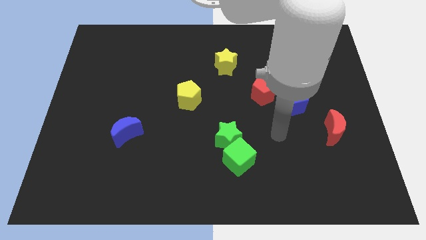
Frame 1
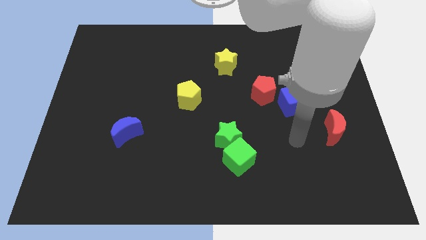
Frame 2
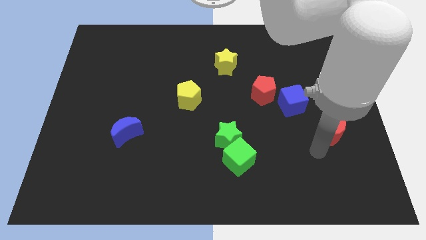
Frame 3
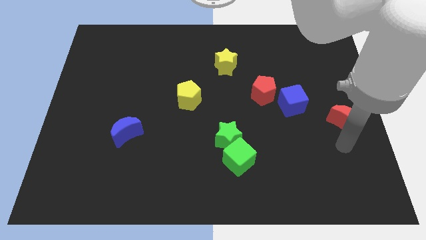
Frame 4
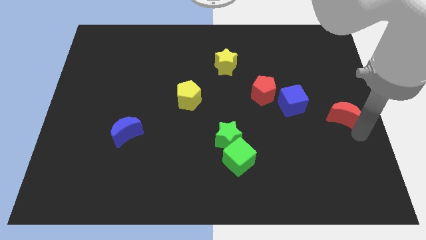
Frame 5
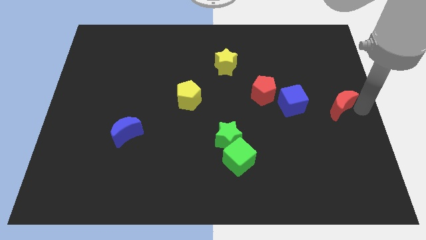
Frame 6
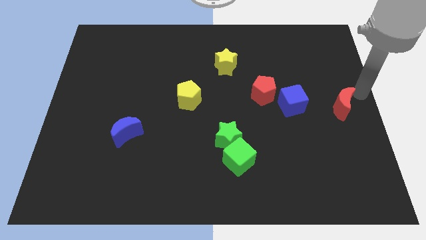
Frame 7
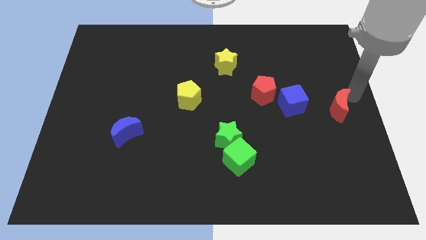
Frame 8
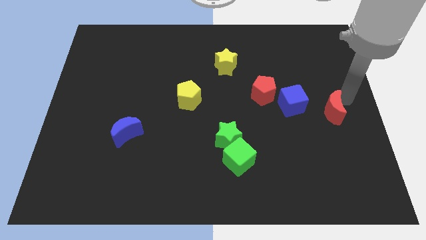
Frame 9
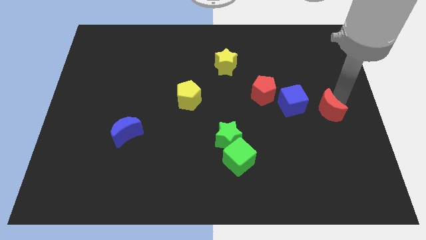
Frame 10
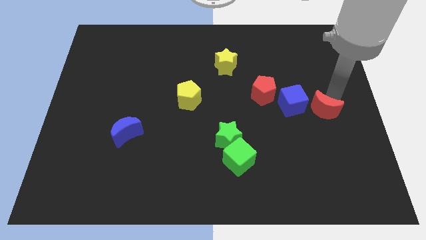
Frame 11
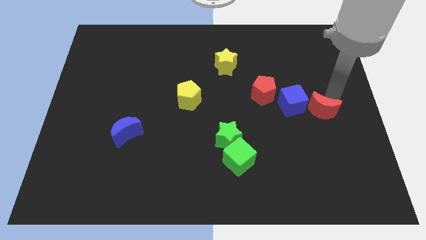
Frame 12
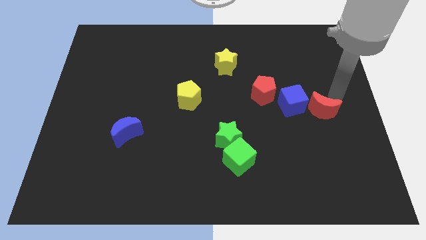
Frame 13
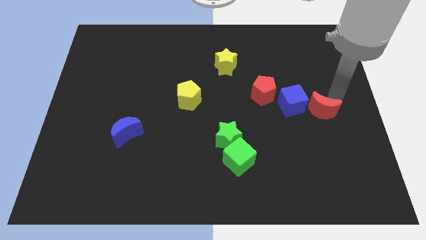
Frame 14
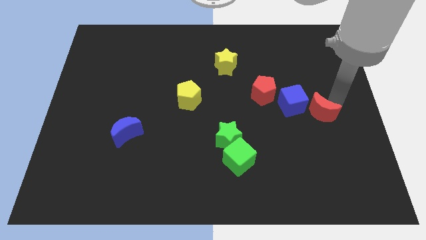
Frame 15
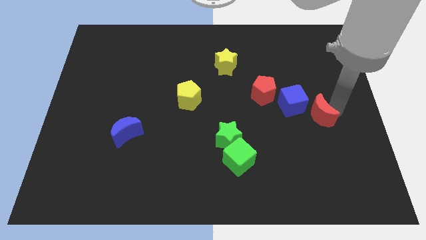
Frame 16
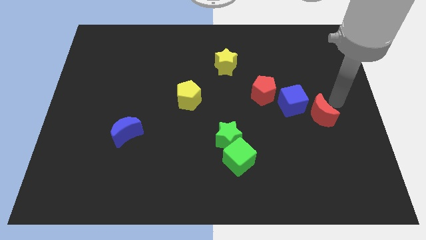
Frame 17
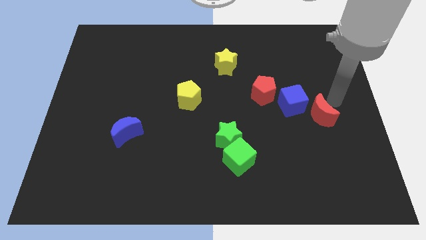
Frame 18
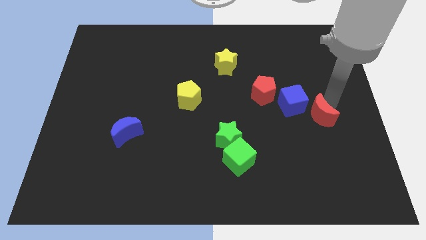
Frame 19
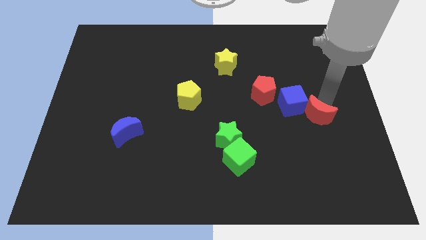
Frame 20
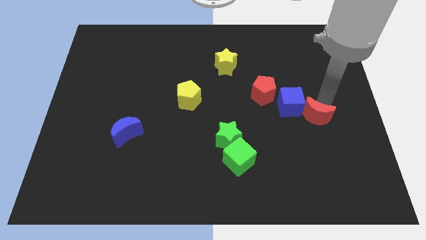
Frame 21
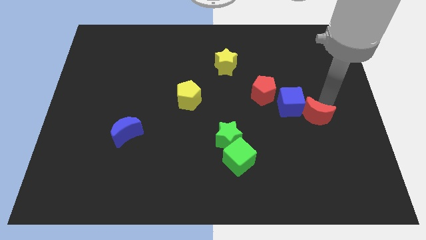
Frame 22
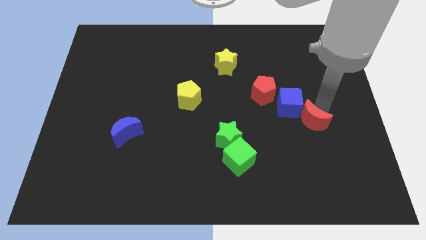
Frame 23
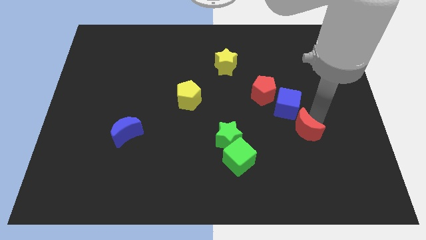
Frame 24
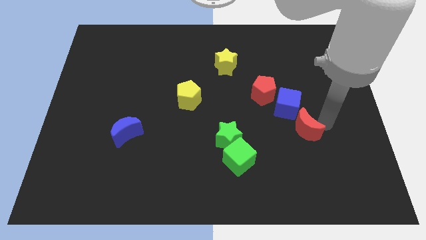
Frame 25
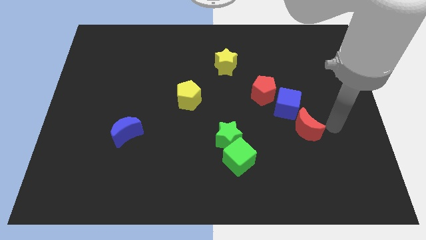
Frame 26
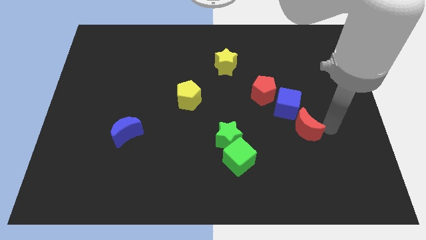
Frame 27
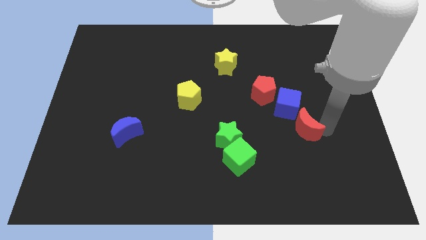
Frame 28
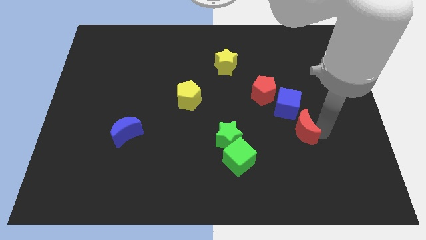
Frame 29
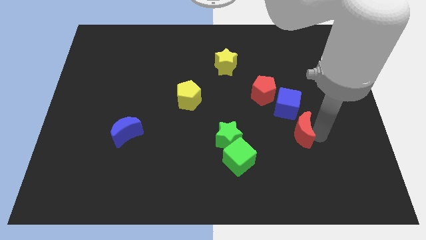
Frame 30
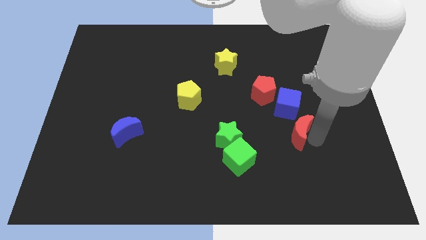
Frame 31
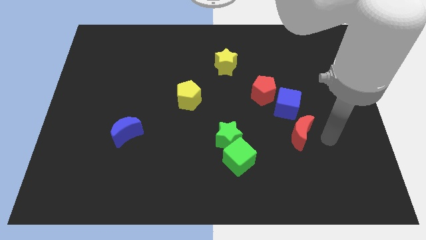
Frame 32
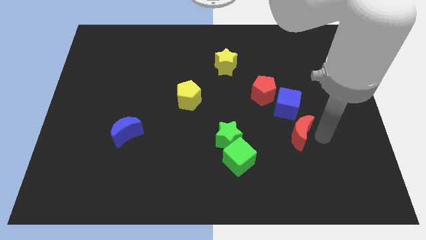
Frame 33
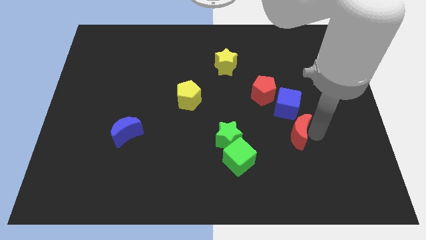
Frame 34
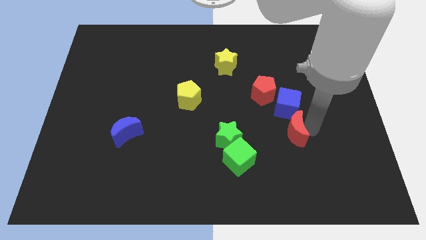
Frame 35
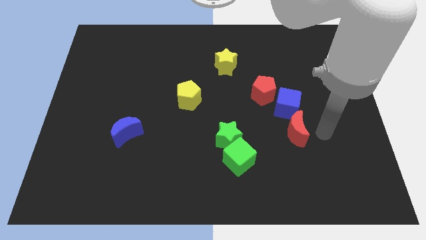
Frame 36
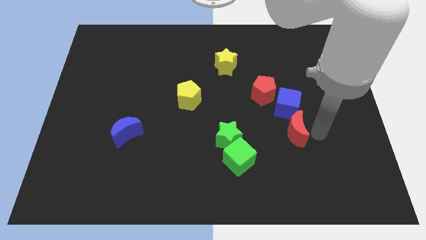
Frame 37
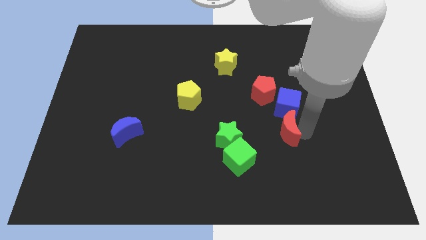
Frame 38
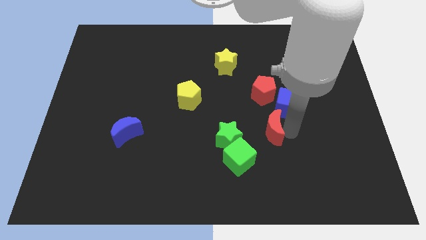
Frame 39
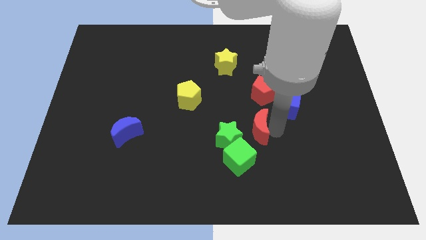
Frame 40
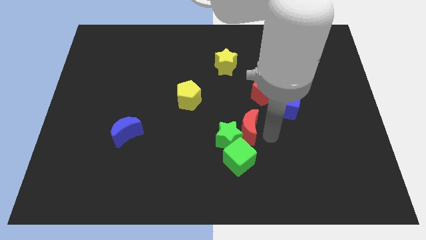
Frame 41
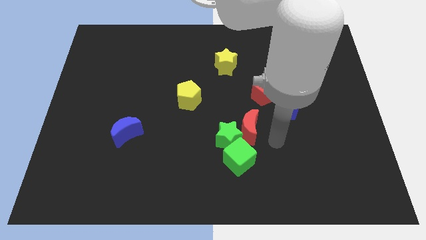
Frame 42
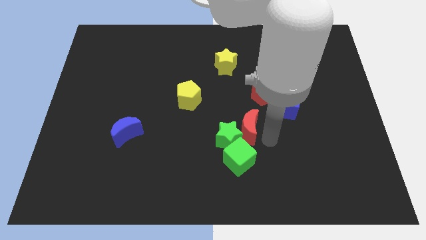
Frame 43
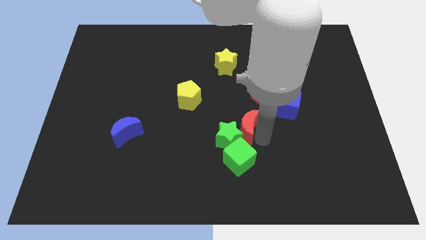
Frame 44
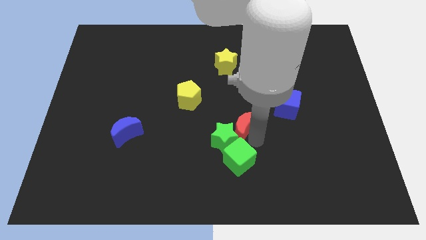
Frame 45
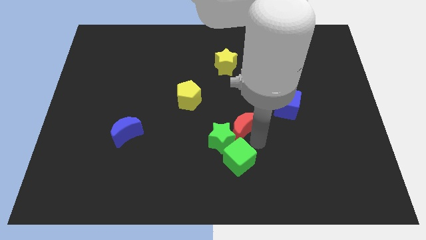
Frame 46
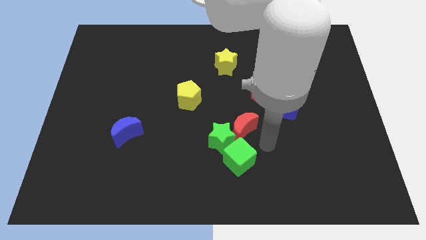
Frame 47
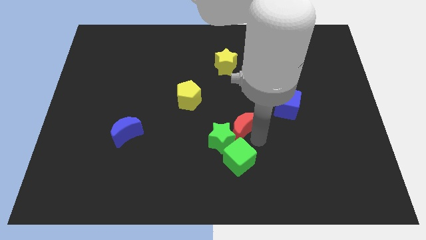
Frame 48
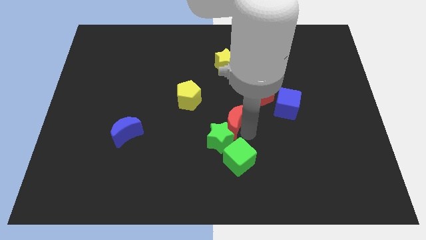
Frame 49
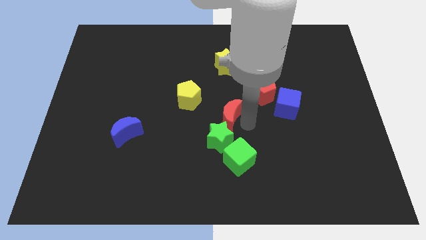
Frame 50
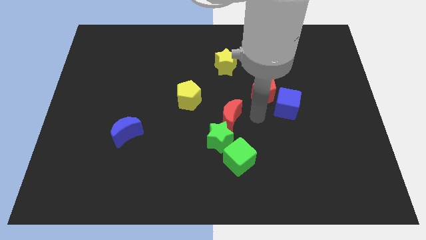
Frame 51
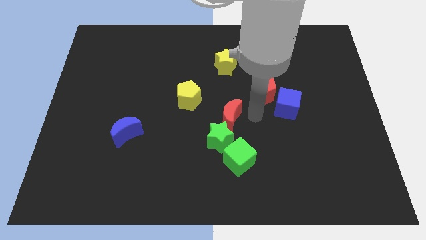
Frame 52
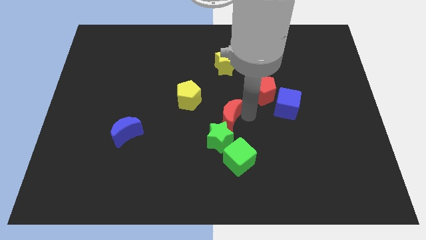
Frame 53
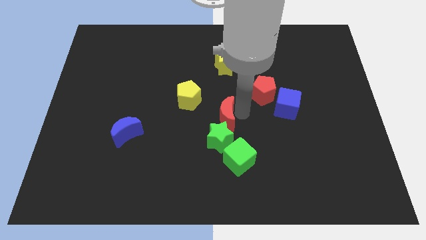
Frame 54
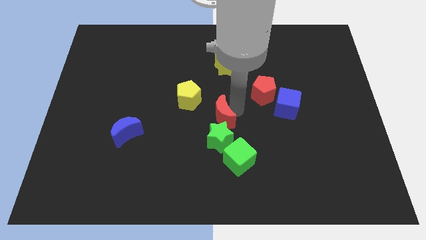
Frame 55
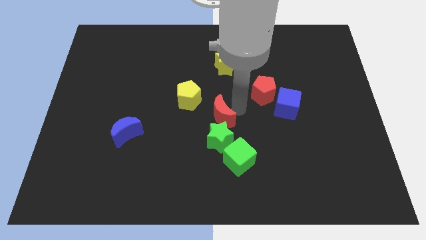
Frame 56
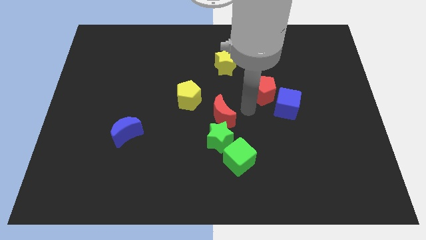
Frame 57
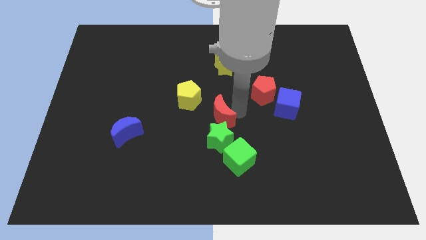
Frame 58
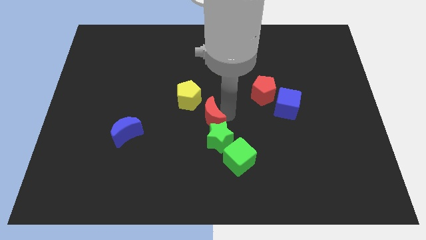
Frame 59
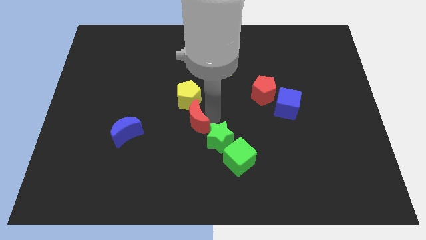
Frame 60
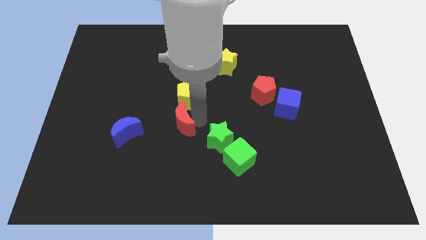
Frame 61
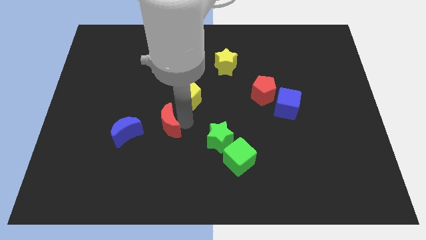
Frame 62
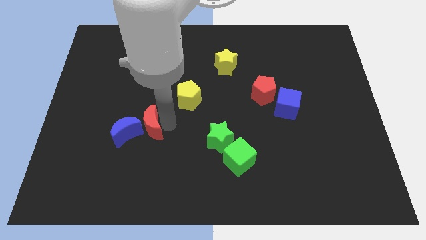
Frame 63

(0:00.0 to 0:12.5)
put the red moon to the blue moon

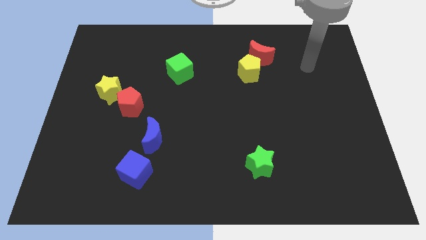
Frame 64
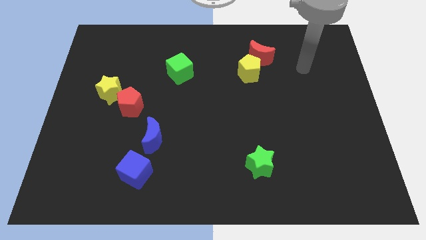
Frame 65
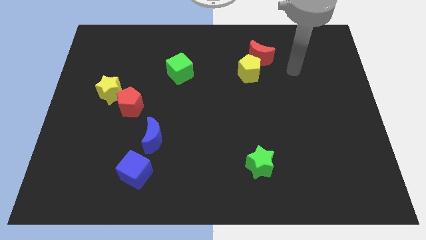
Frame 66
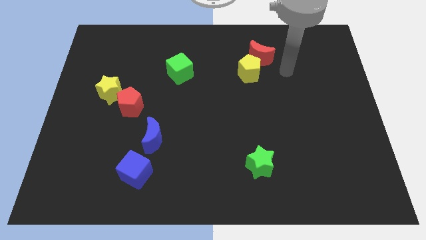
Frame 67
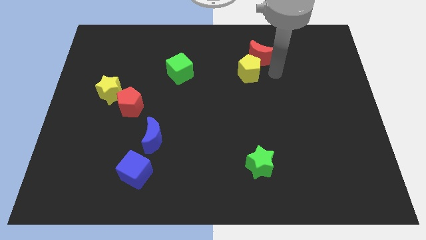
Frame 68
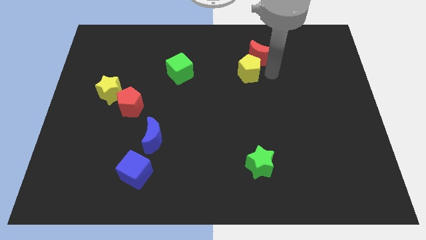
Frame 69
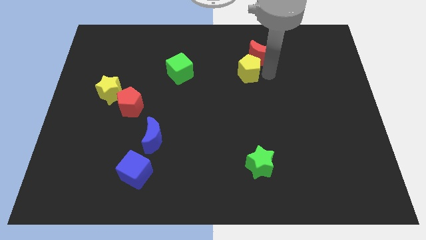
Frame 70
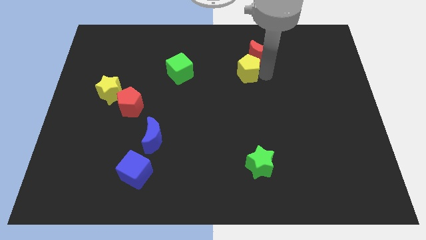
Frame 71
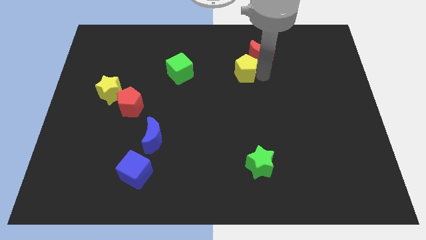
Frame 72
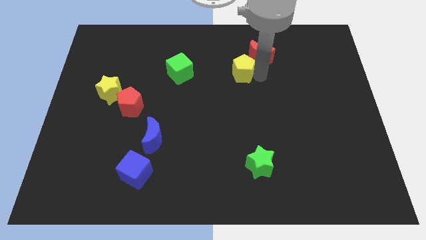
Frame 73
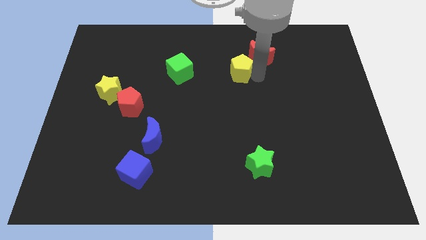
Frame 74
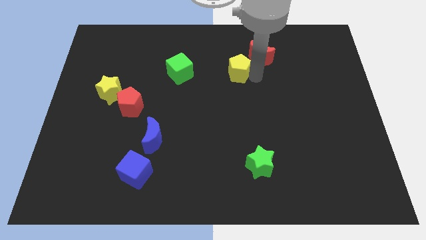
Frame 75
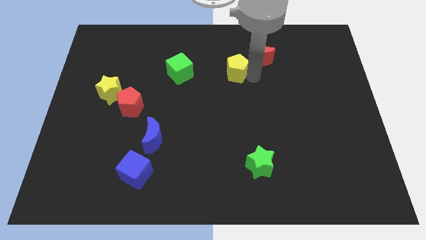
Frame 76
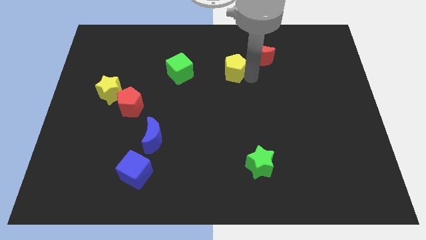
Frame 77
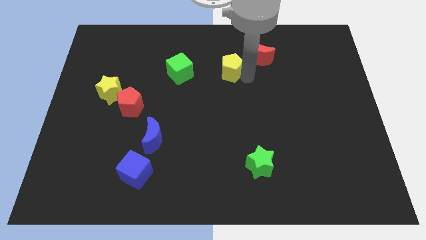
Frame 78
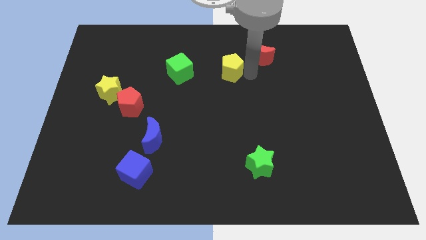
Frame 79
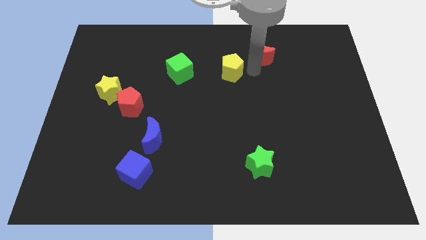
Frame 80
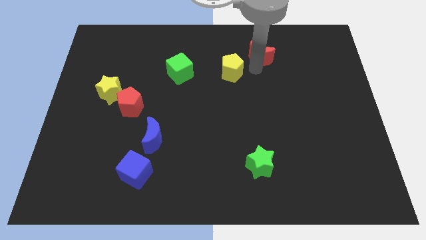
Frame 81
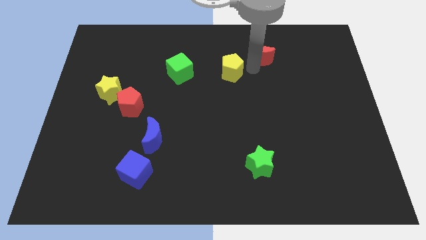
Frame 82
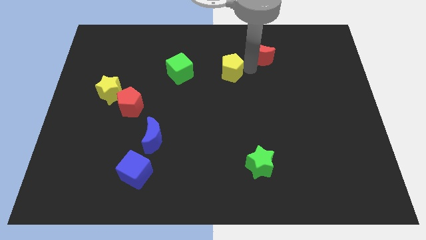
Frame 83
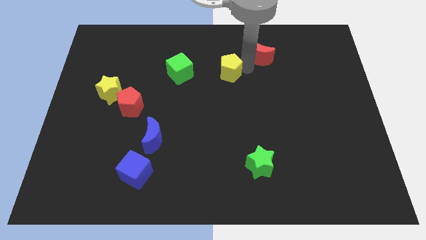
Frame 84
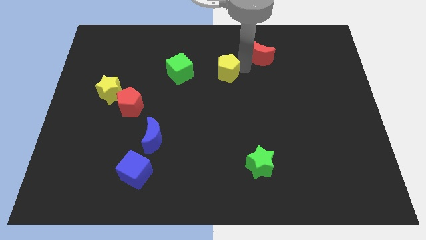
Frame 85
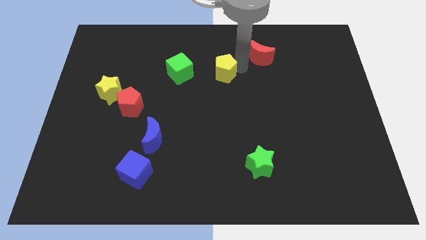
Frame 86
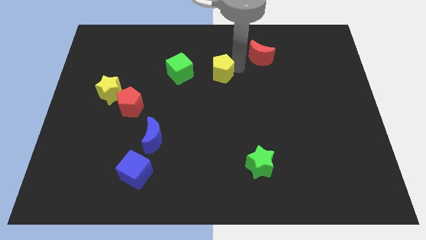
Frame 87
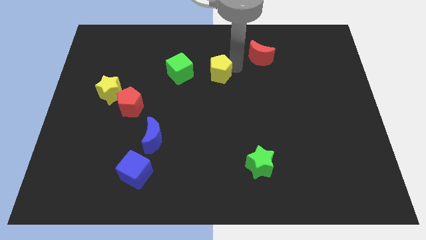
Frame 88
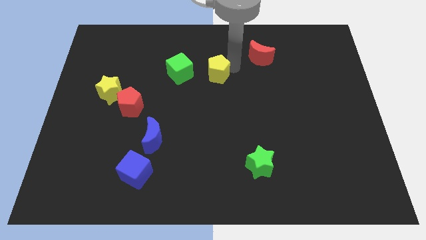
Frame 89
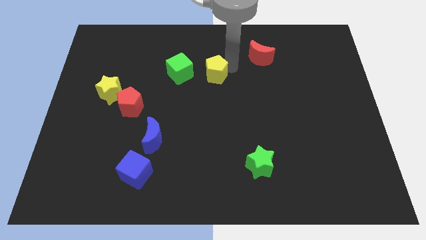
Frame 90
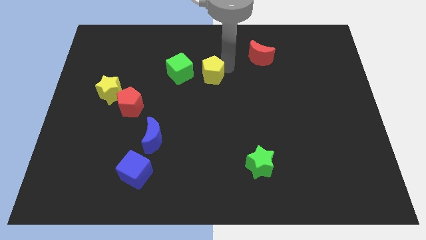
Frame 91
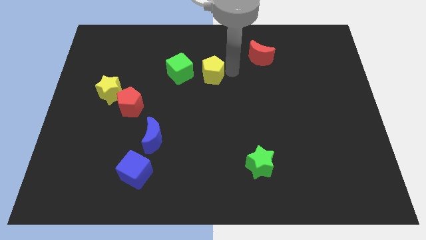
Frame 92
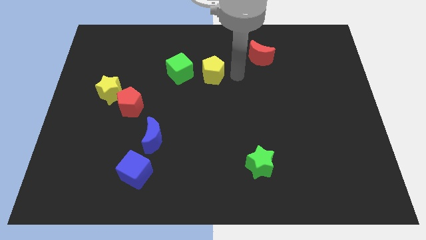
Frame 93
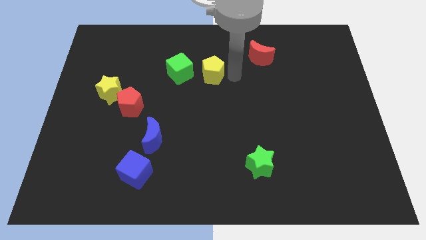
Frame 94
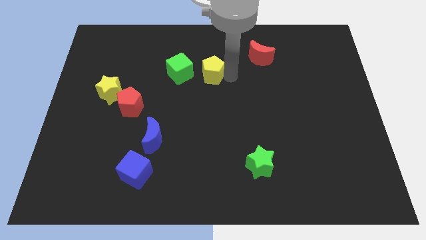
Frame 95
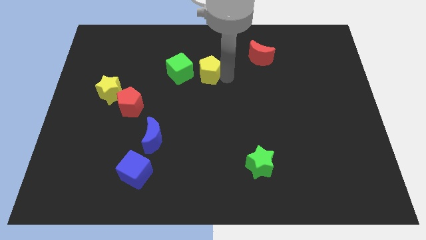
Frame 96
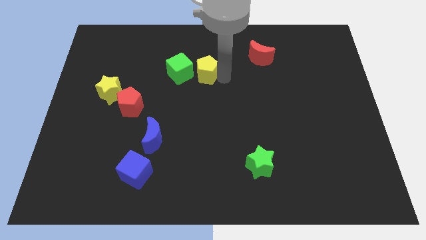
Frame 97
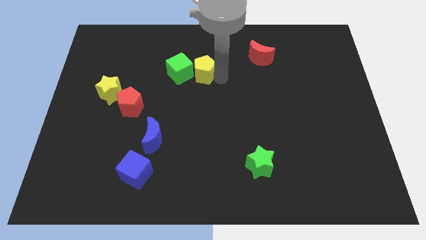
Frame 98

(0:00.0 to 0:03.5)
move the yellow pentagon towards the green cube
